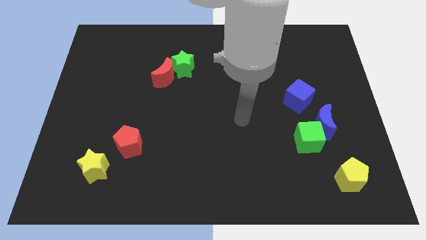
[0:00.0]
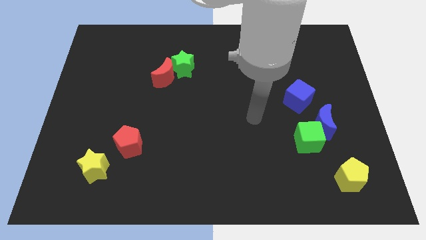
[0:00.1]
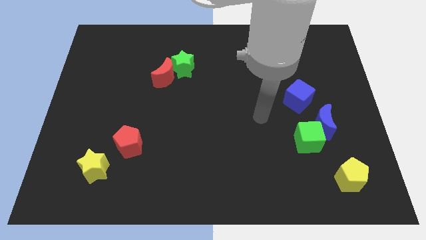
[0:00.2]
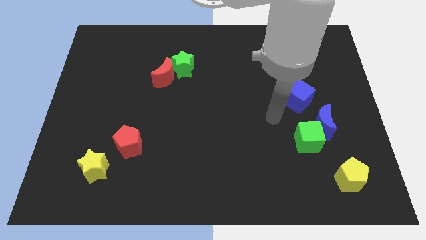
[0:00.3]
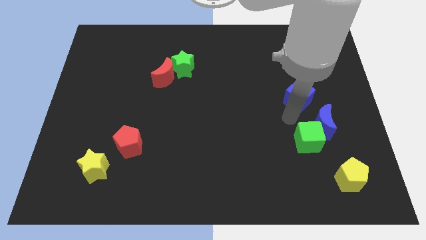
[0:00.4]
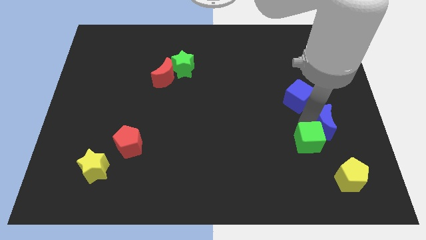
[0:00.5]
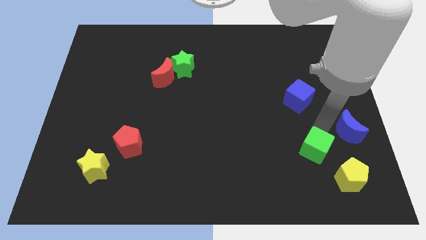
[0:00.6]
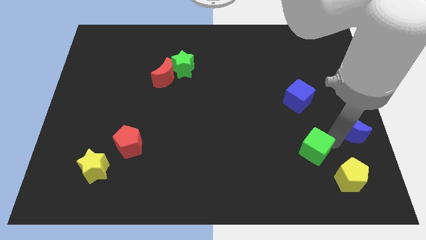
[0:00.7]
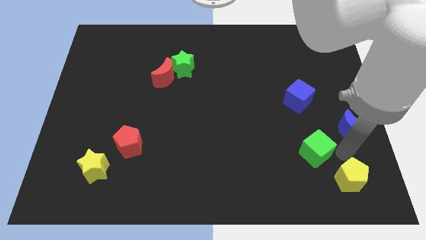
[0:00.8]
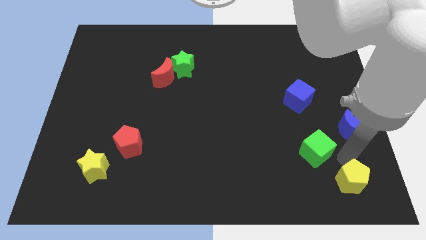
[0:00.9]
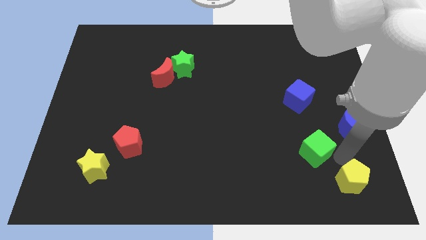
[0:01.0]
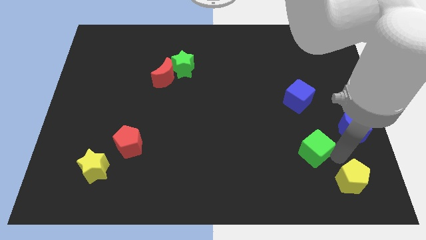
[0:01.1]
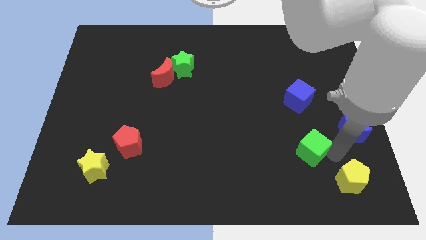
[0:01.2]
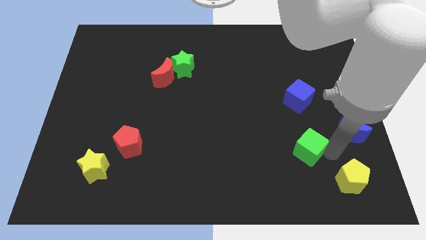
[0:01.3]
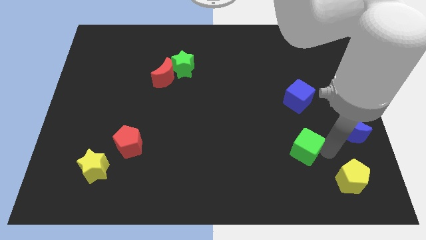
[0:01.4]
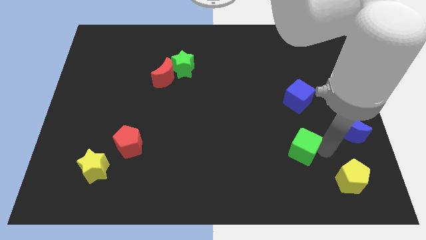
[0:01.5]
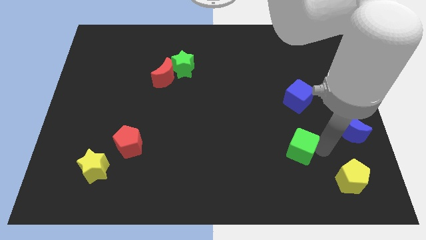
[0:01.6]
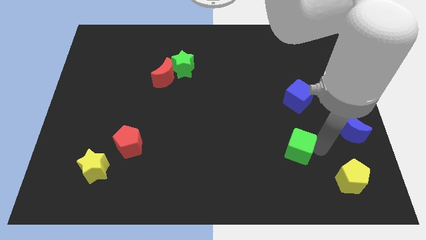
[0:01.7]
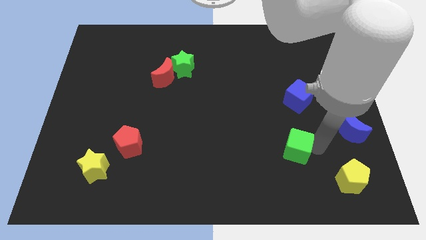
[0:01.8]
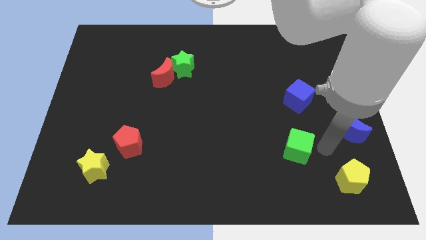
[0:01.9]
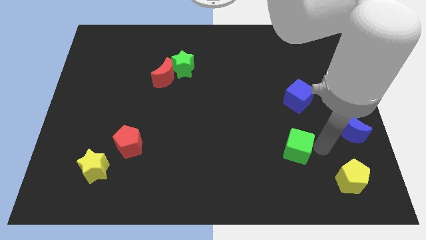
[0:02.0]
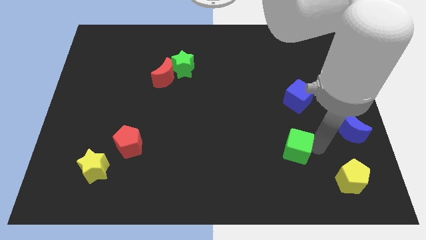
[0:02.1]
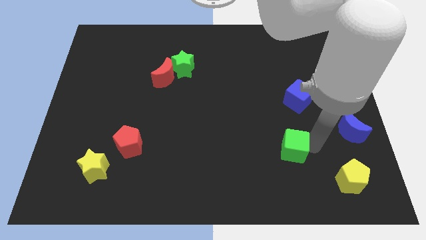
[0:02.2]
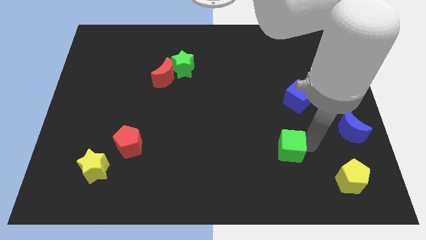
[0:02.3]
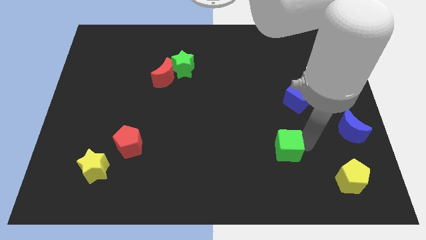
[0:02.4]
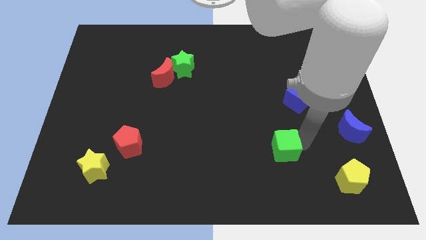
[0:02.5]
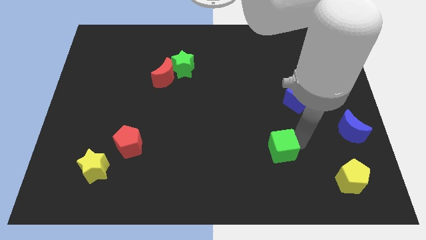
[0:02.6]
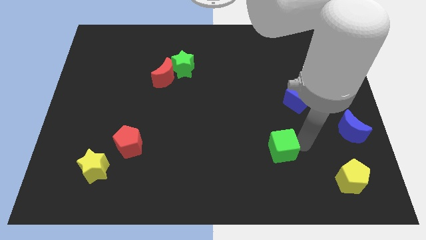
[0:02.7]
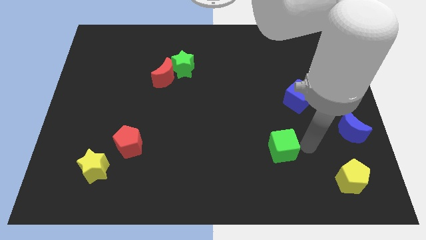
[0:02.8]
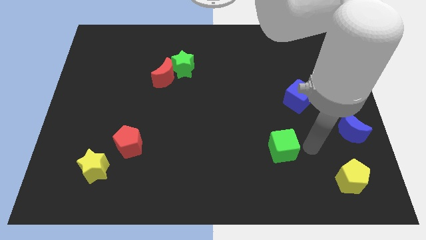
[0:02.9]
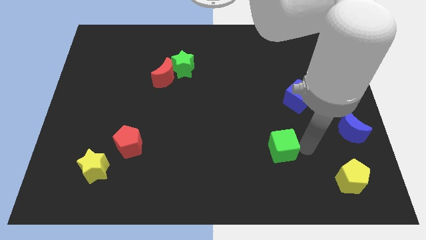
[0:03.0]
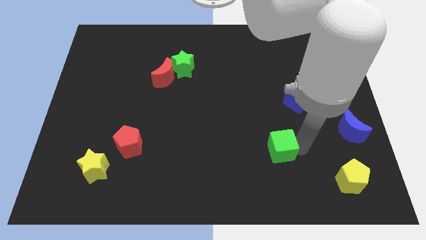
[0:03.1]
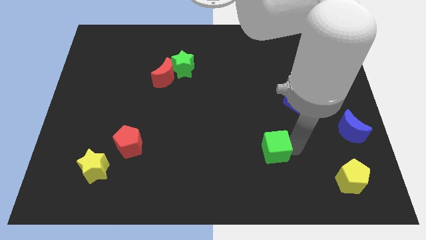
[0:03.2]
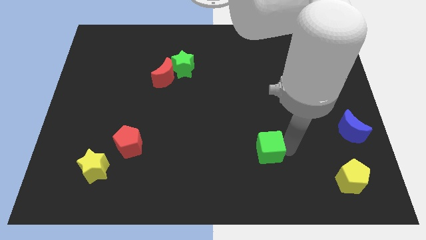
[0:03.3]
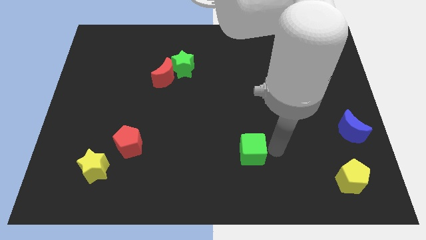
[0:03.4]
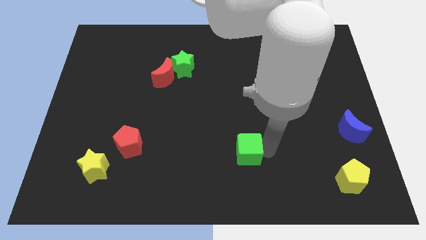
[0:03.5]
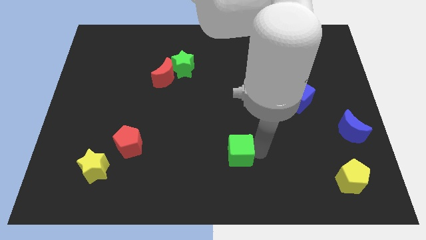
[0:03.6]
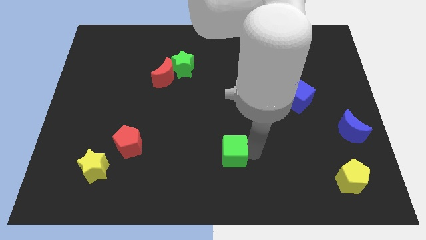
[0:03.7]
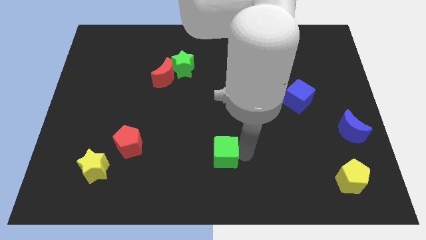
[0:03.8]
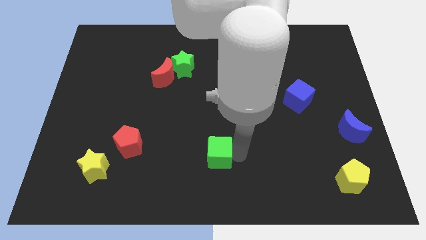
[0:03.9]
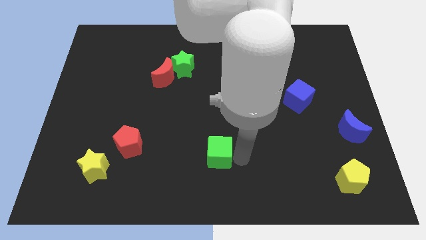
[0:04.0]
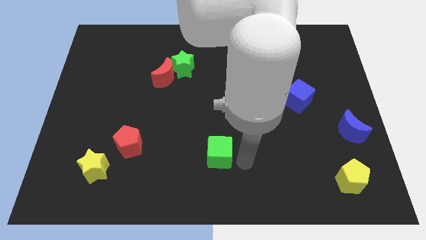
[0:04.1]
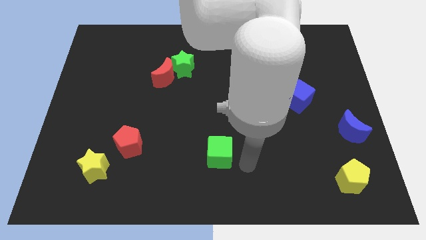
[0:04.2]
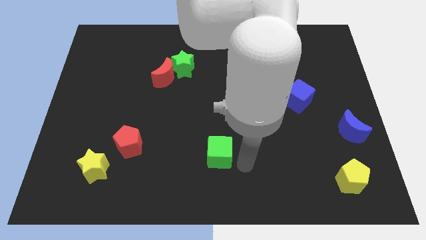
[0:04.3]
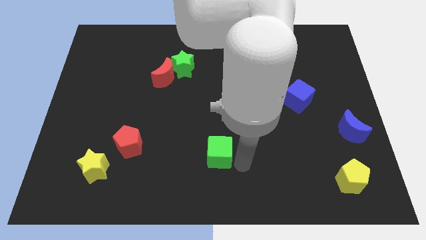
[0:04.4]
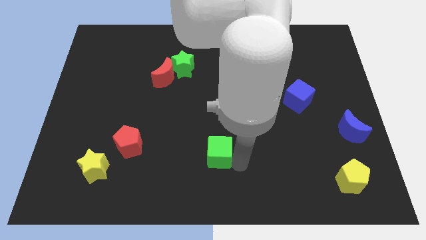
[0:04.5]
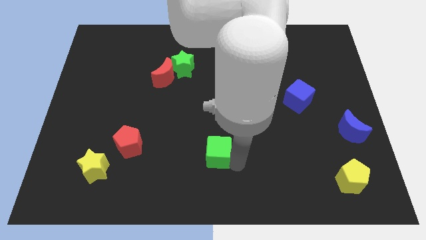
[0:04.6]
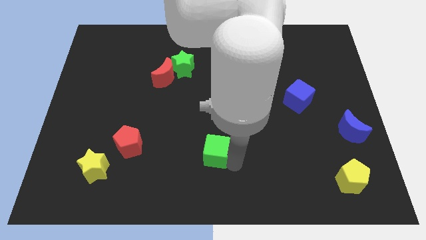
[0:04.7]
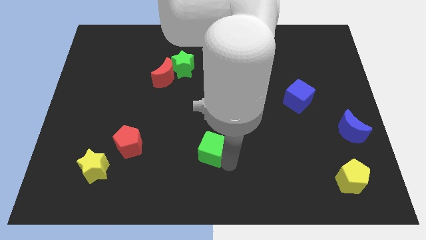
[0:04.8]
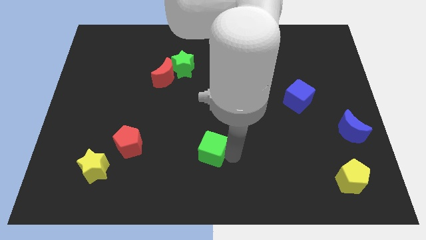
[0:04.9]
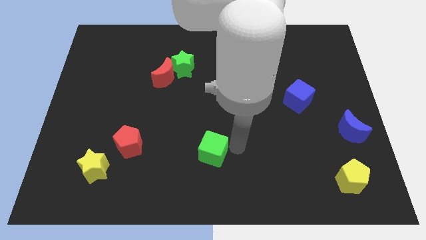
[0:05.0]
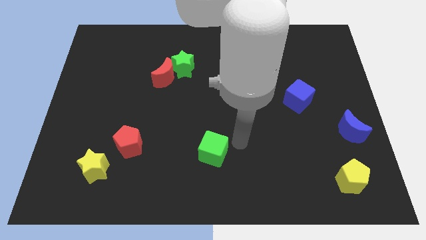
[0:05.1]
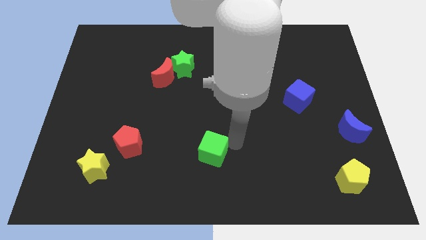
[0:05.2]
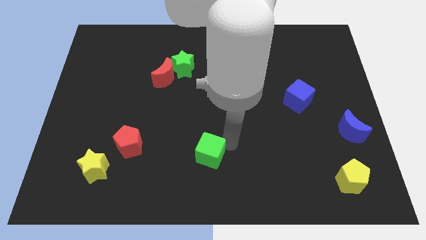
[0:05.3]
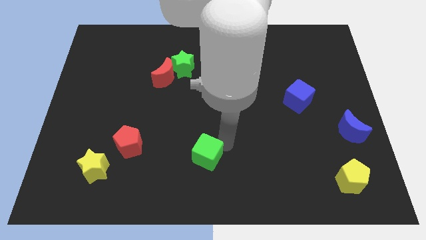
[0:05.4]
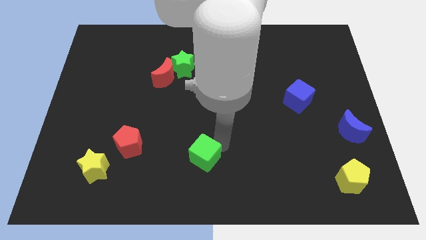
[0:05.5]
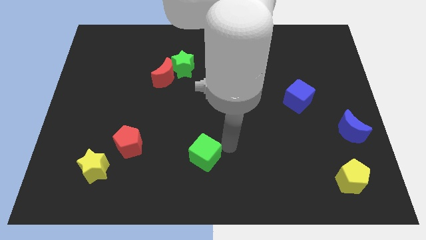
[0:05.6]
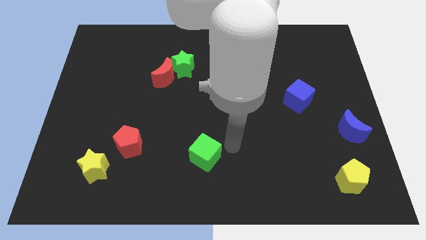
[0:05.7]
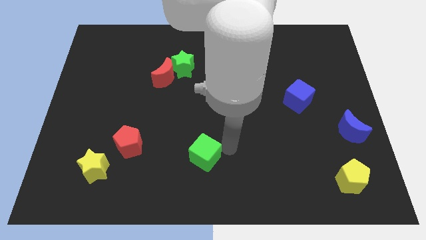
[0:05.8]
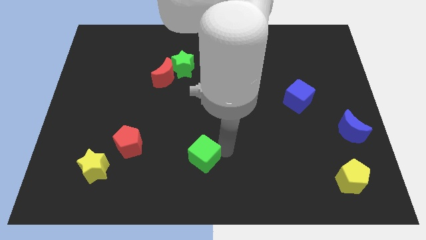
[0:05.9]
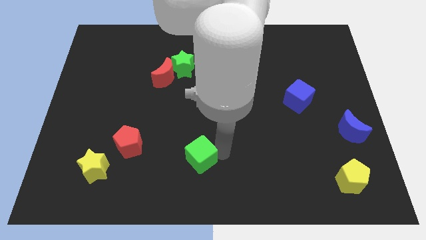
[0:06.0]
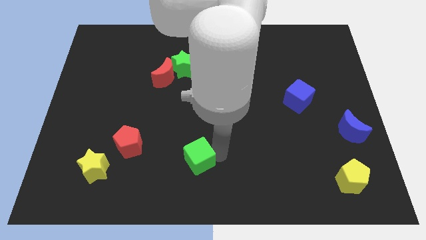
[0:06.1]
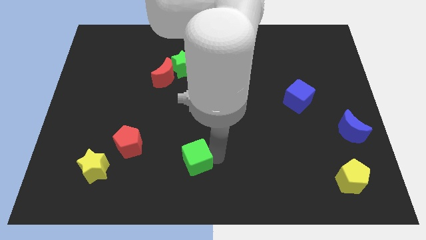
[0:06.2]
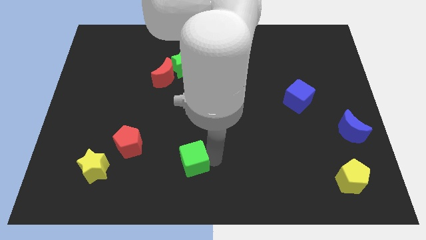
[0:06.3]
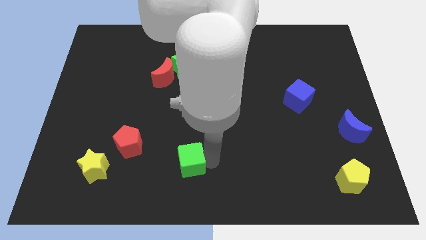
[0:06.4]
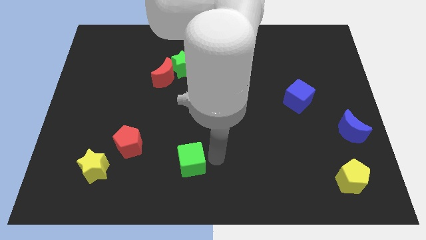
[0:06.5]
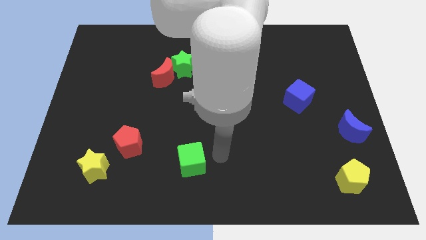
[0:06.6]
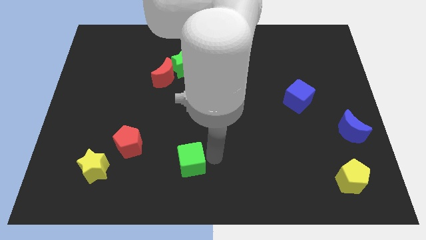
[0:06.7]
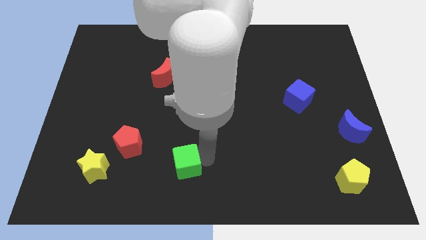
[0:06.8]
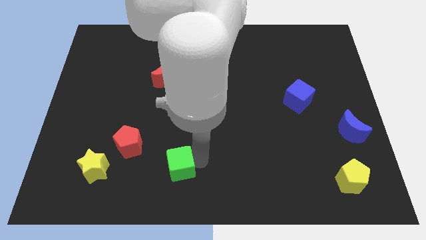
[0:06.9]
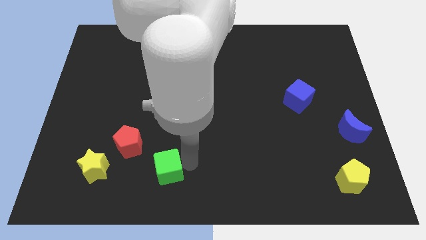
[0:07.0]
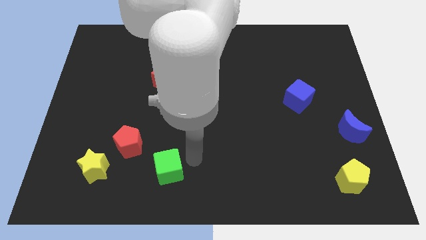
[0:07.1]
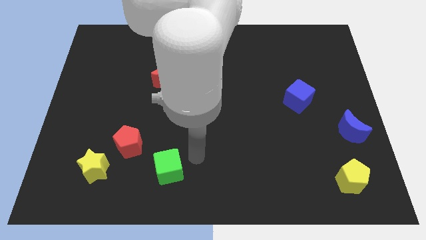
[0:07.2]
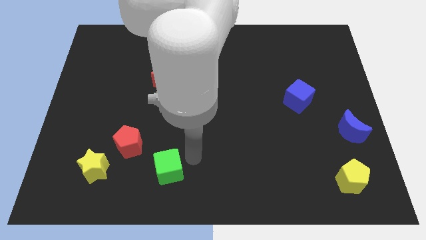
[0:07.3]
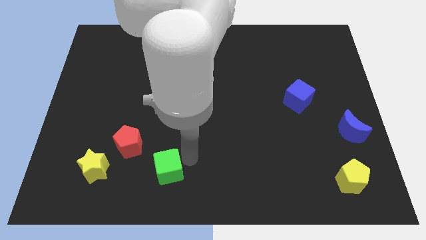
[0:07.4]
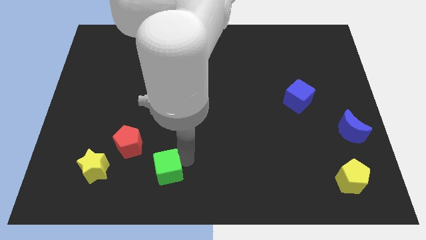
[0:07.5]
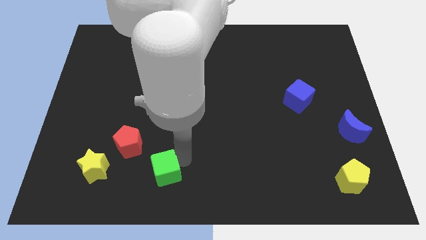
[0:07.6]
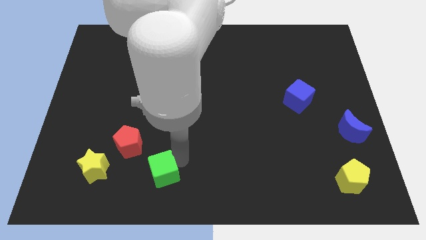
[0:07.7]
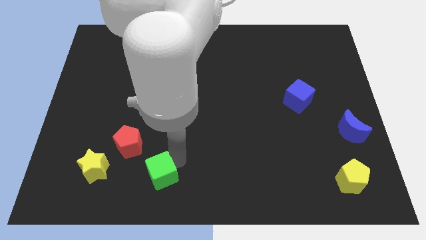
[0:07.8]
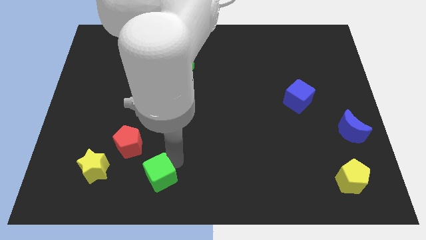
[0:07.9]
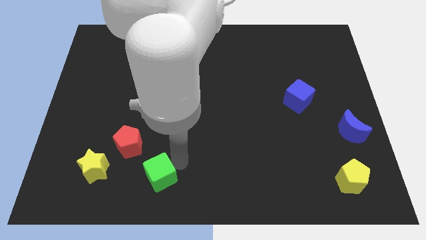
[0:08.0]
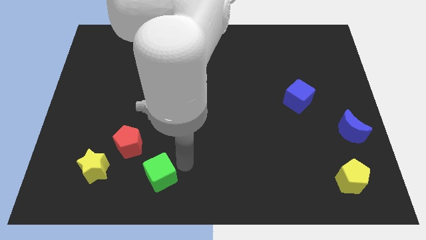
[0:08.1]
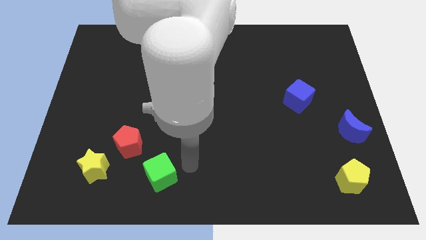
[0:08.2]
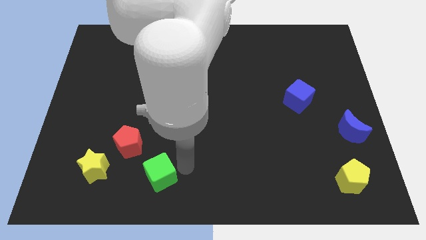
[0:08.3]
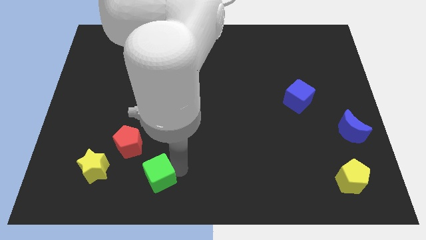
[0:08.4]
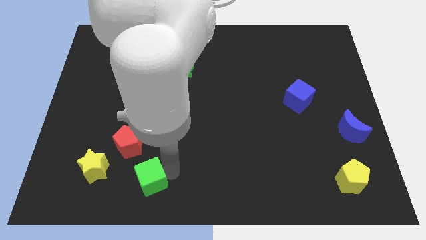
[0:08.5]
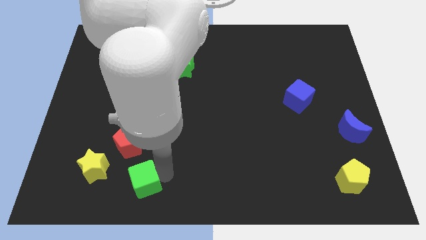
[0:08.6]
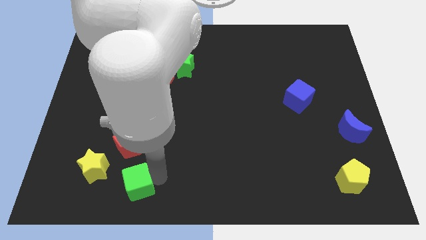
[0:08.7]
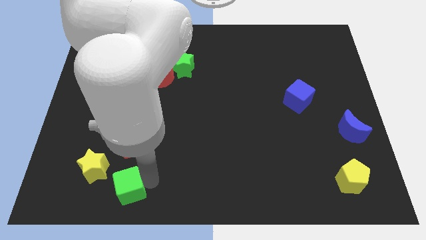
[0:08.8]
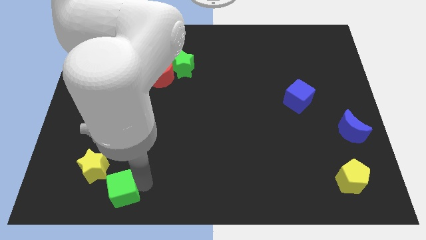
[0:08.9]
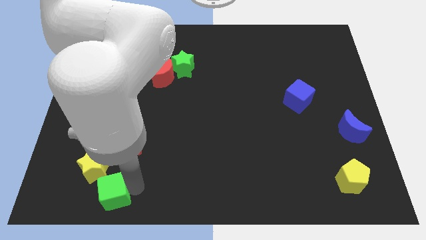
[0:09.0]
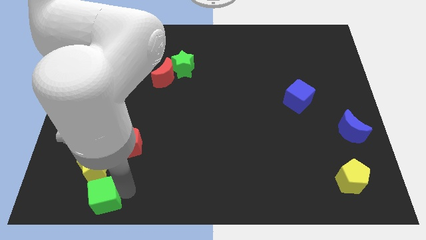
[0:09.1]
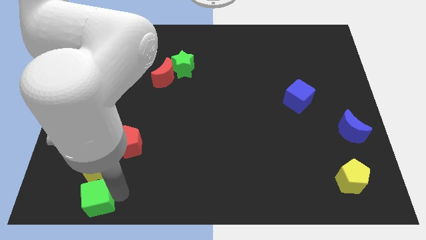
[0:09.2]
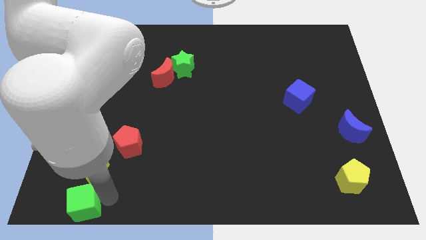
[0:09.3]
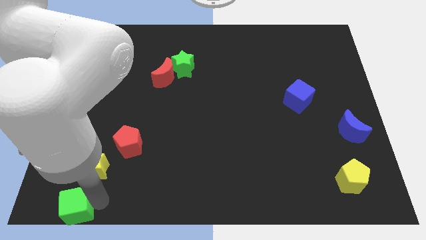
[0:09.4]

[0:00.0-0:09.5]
move the green cube to the bottom left corner
